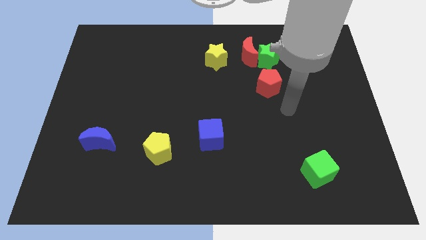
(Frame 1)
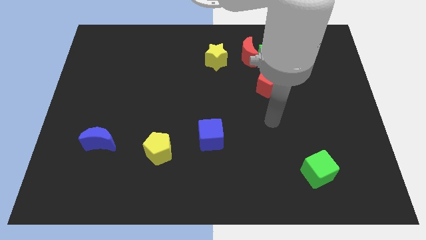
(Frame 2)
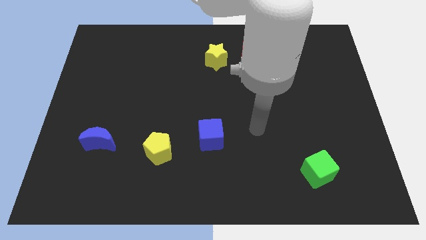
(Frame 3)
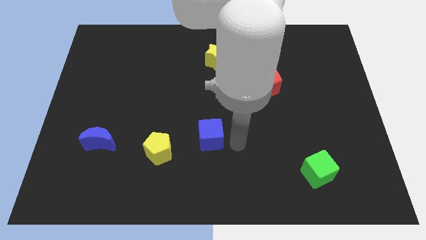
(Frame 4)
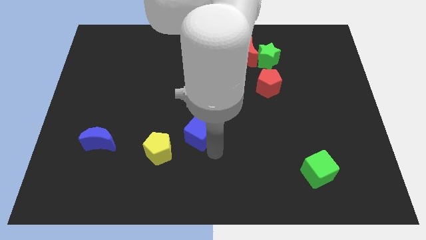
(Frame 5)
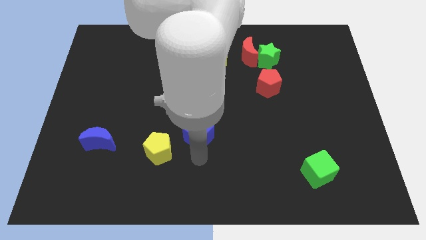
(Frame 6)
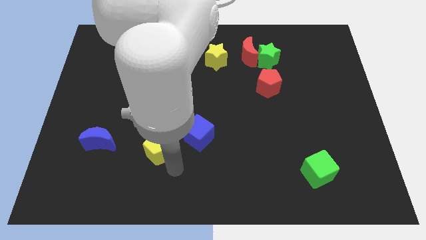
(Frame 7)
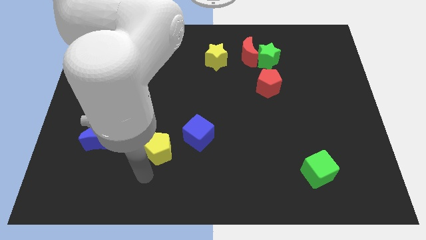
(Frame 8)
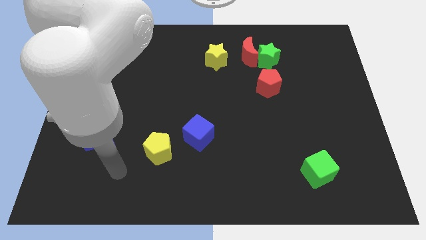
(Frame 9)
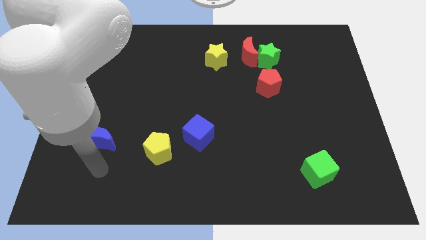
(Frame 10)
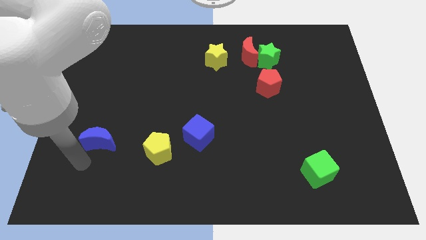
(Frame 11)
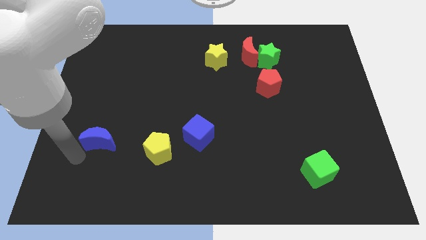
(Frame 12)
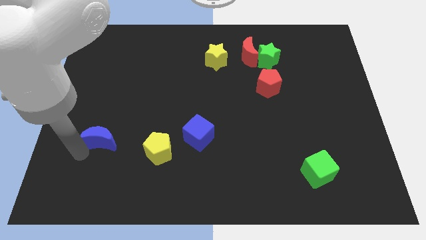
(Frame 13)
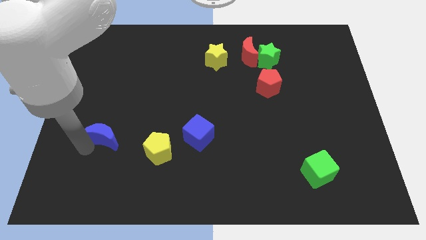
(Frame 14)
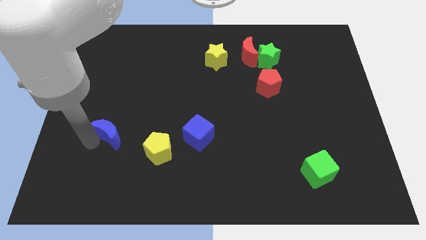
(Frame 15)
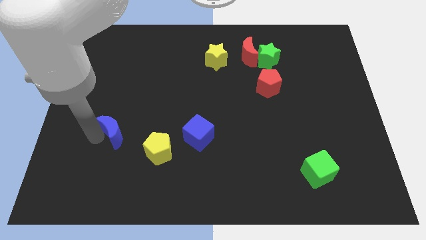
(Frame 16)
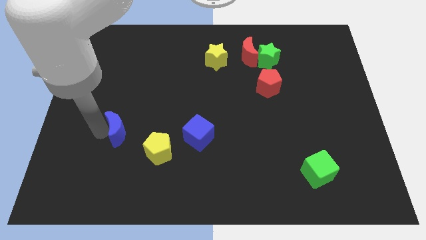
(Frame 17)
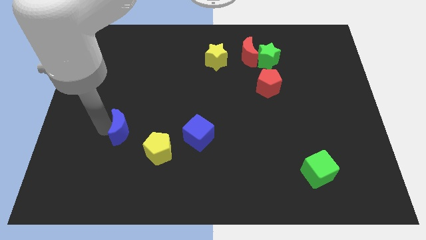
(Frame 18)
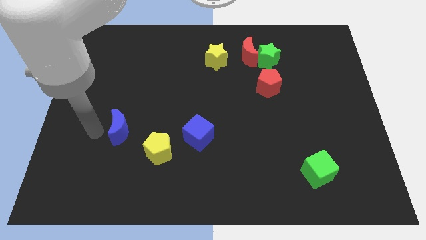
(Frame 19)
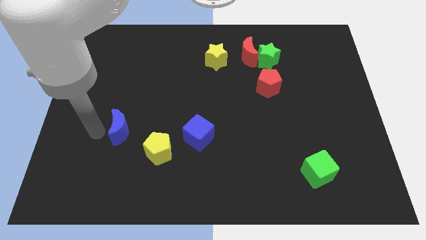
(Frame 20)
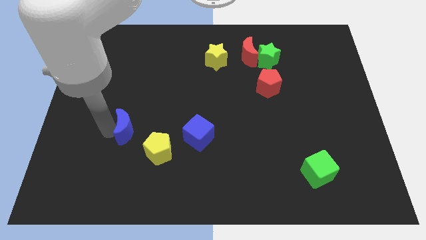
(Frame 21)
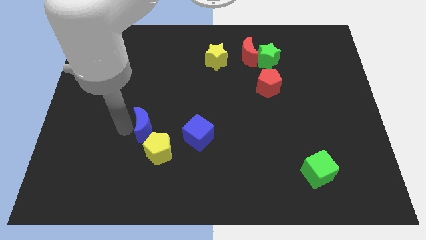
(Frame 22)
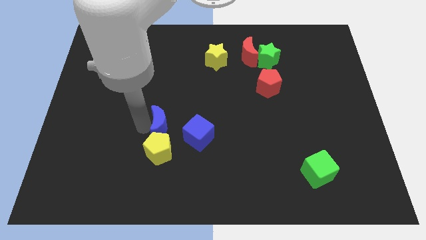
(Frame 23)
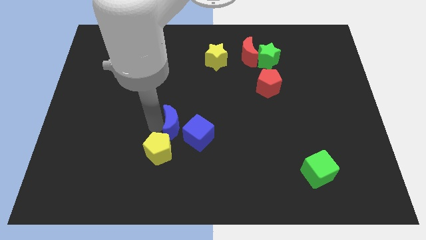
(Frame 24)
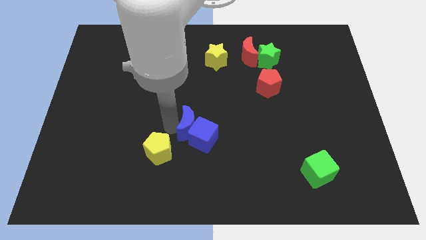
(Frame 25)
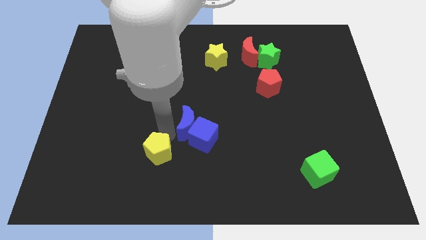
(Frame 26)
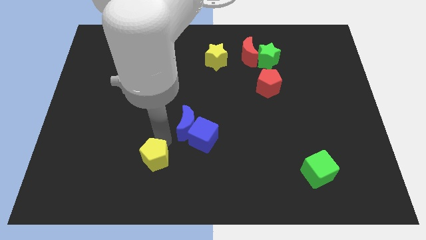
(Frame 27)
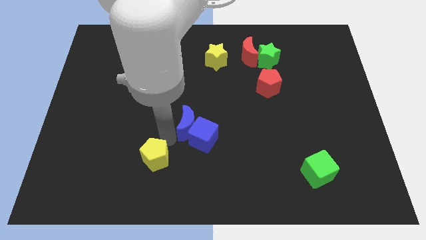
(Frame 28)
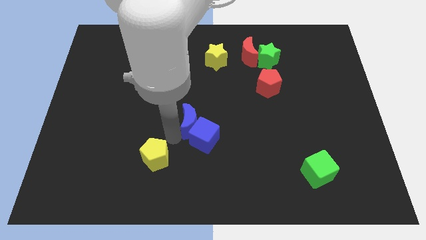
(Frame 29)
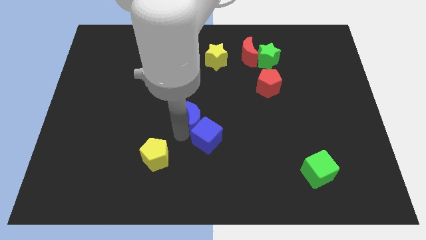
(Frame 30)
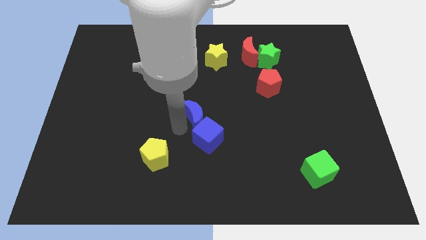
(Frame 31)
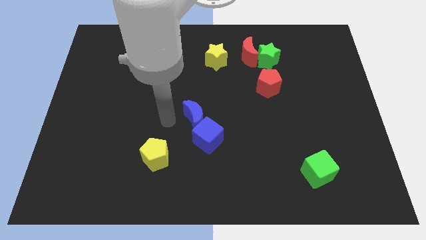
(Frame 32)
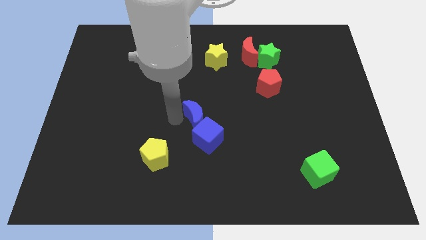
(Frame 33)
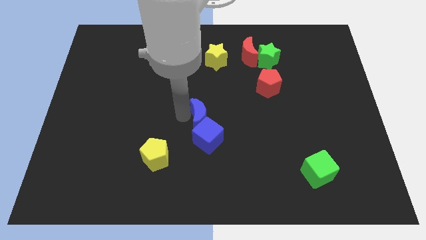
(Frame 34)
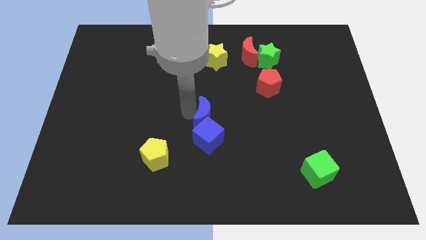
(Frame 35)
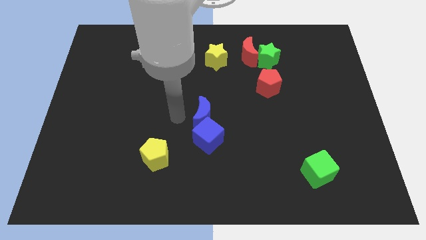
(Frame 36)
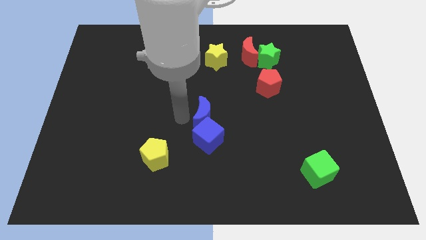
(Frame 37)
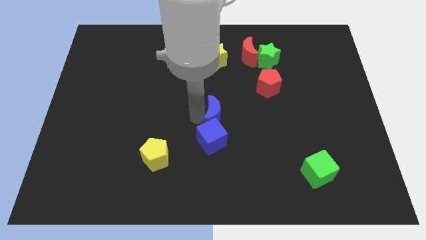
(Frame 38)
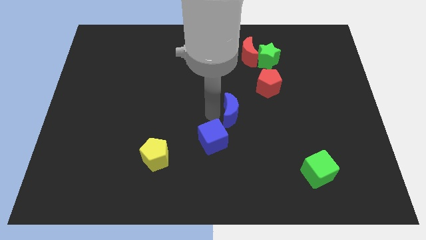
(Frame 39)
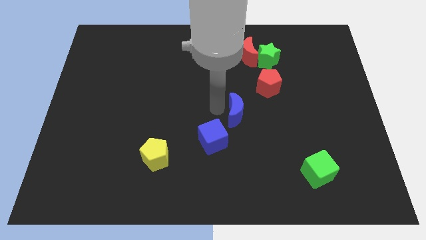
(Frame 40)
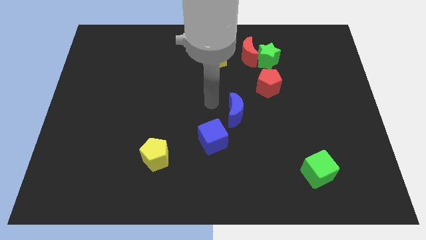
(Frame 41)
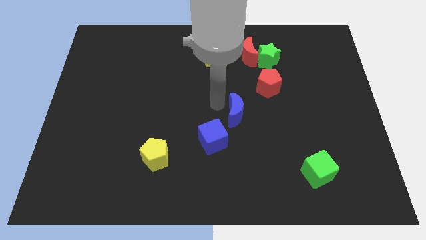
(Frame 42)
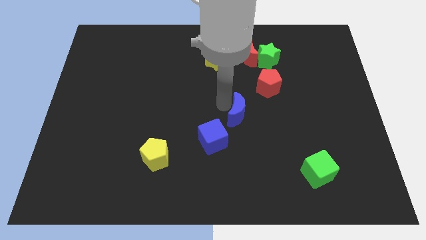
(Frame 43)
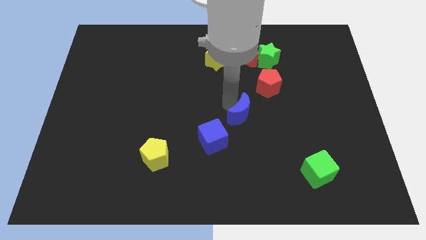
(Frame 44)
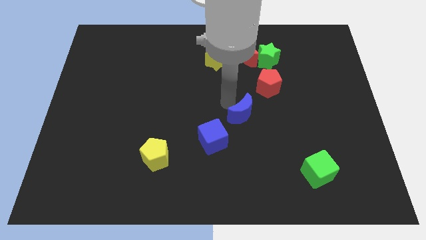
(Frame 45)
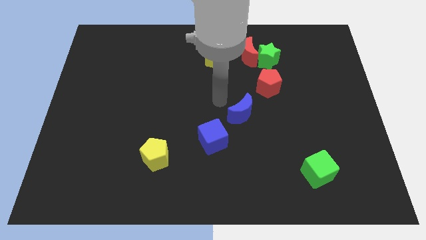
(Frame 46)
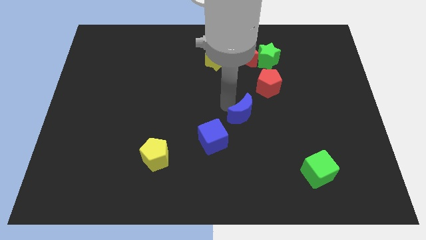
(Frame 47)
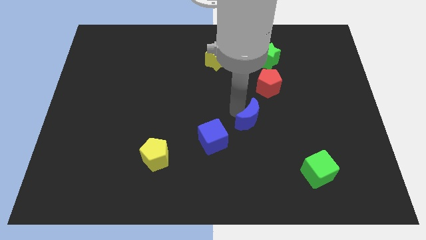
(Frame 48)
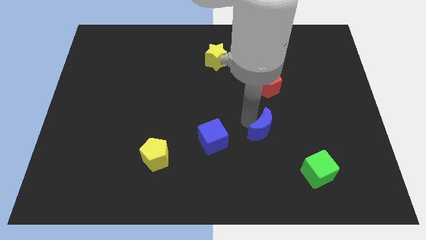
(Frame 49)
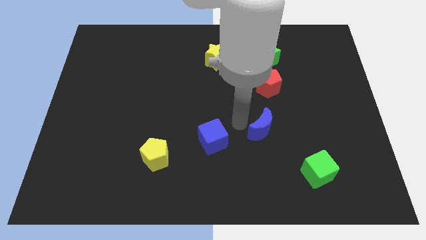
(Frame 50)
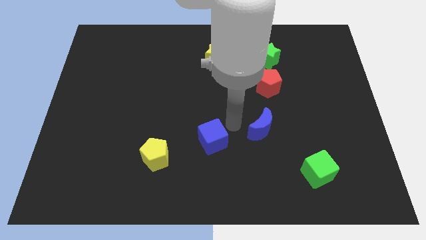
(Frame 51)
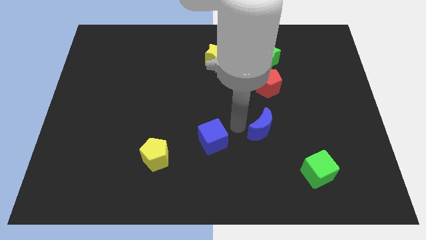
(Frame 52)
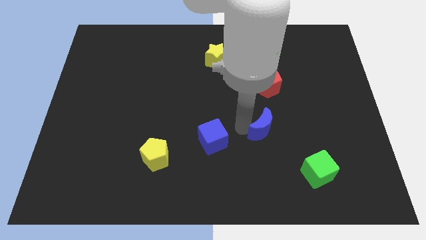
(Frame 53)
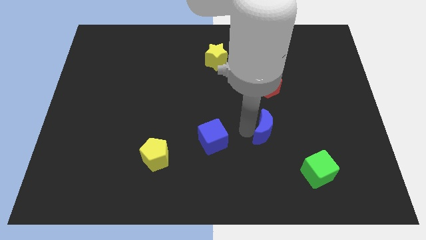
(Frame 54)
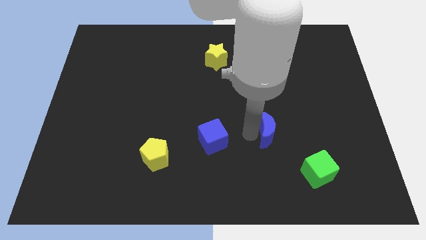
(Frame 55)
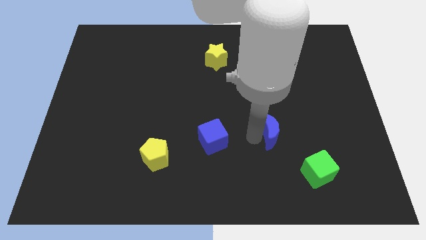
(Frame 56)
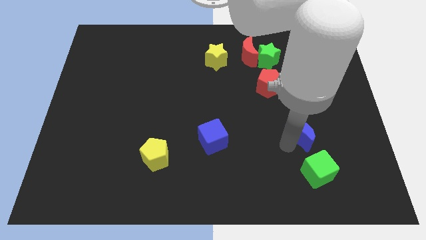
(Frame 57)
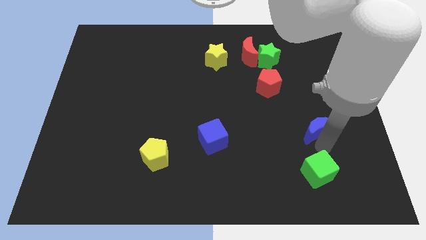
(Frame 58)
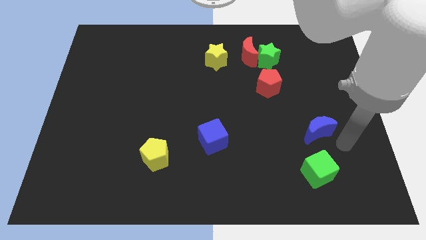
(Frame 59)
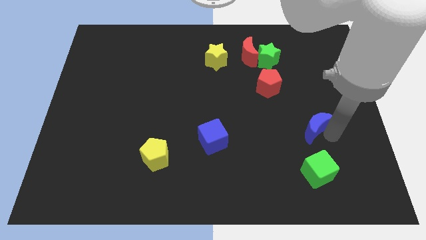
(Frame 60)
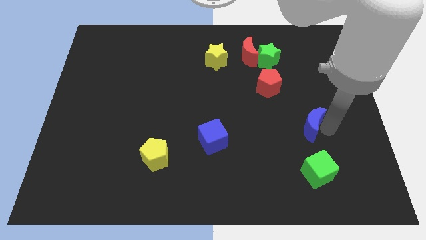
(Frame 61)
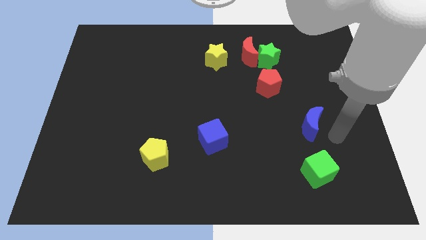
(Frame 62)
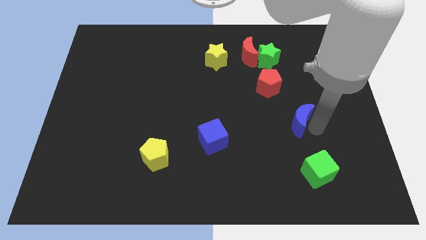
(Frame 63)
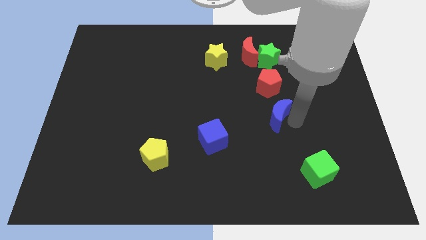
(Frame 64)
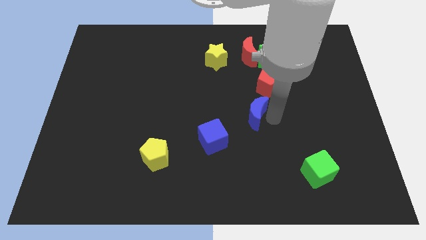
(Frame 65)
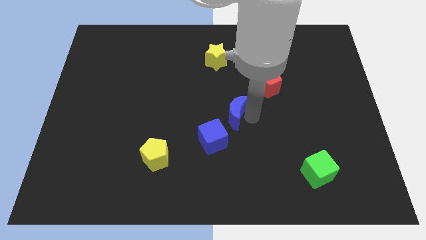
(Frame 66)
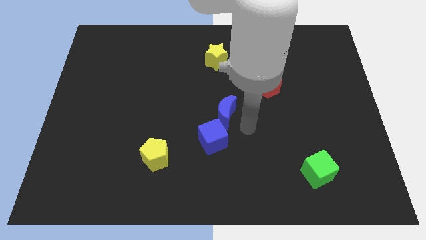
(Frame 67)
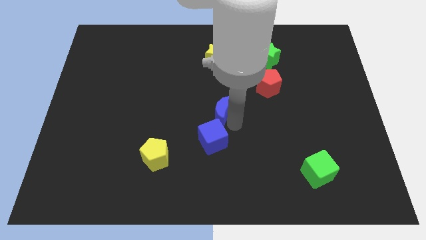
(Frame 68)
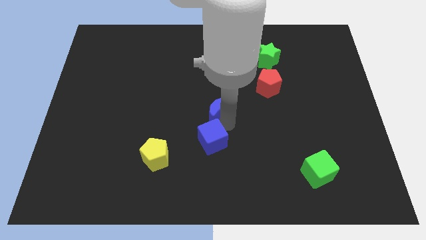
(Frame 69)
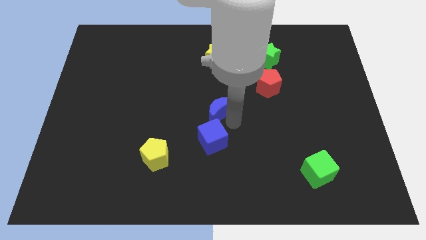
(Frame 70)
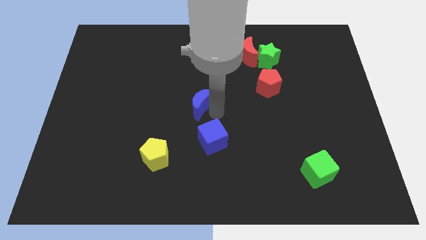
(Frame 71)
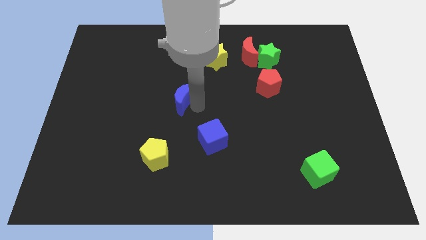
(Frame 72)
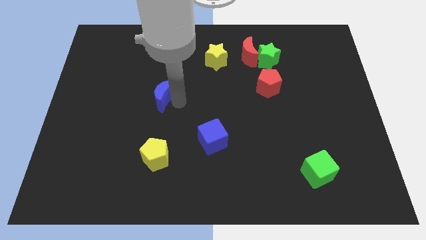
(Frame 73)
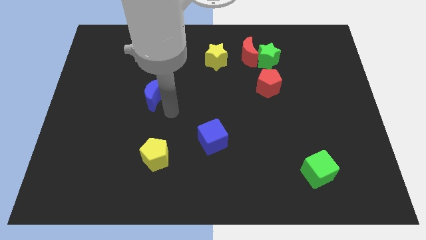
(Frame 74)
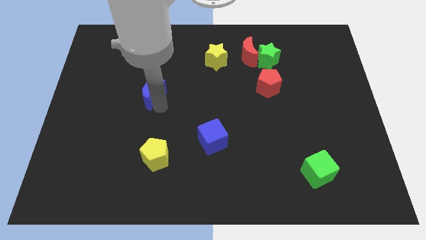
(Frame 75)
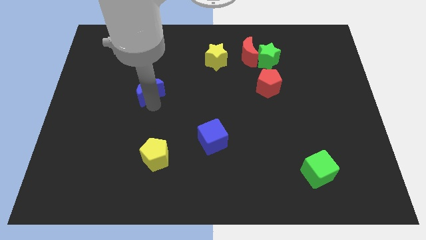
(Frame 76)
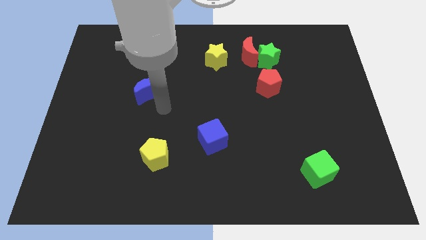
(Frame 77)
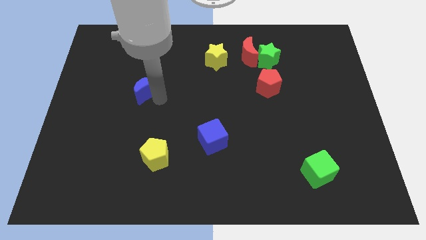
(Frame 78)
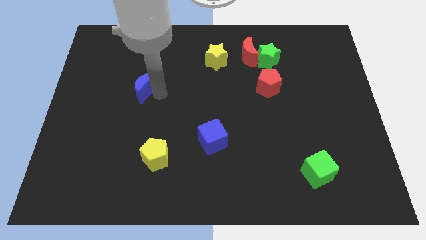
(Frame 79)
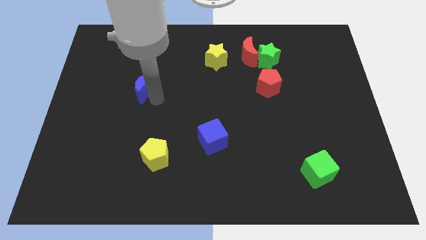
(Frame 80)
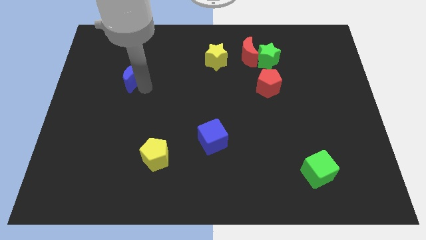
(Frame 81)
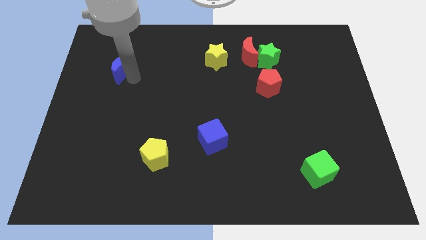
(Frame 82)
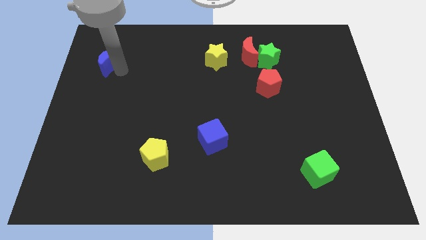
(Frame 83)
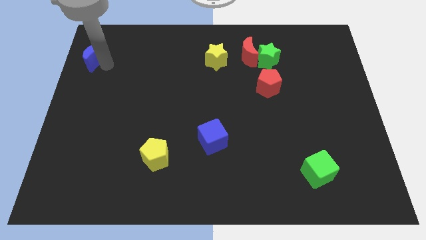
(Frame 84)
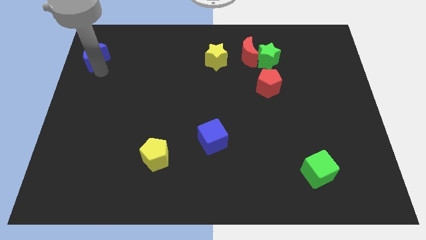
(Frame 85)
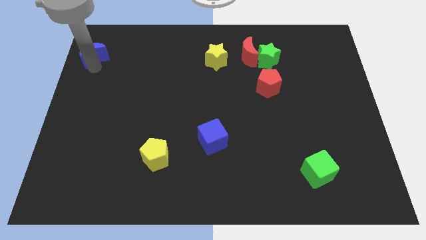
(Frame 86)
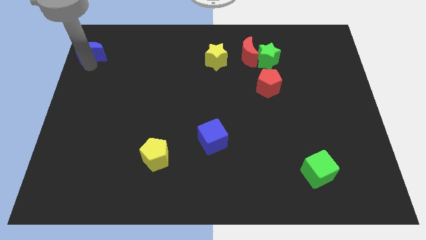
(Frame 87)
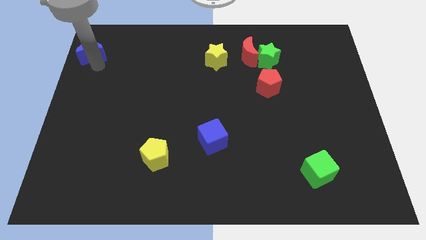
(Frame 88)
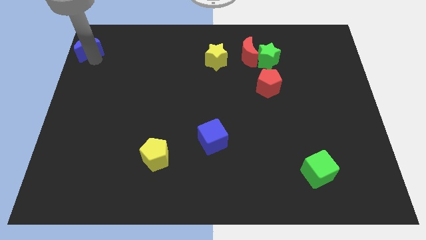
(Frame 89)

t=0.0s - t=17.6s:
slide the blue moon to the top left of the board
